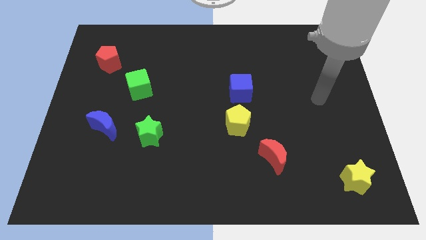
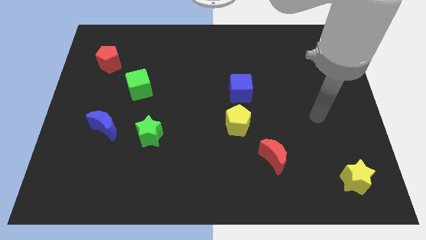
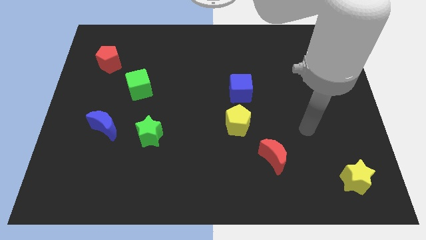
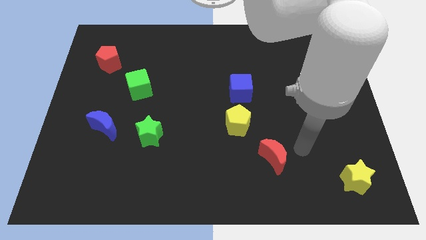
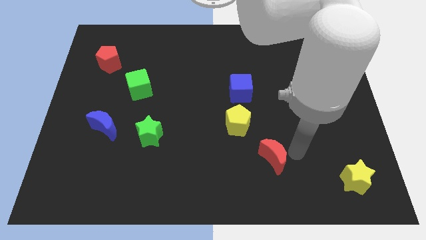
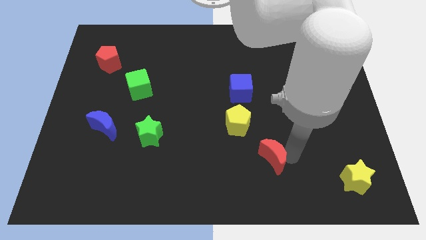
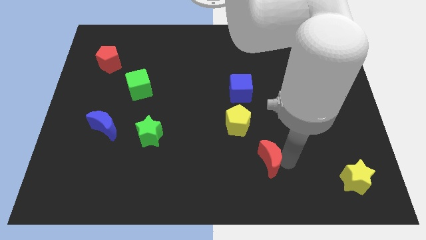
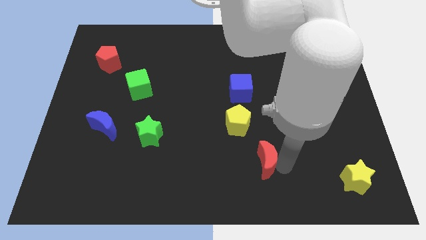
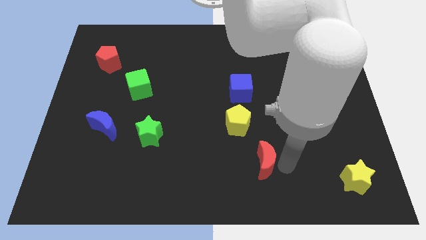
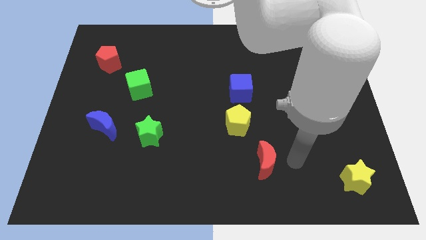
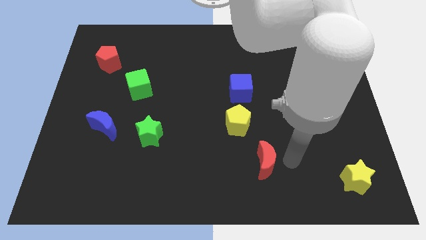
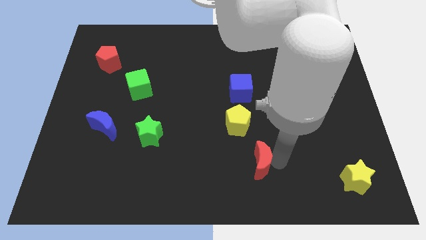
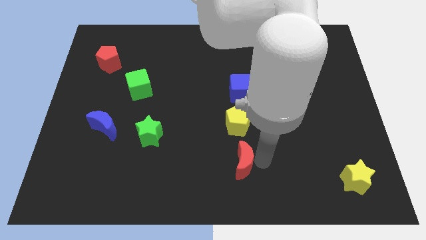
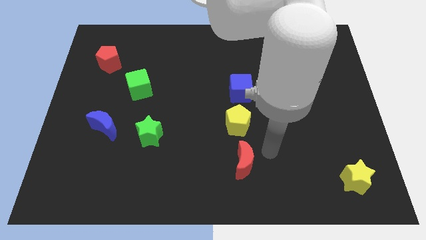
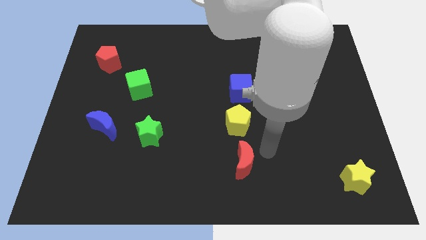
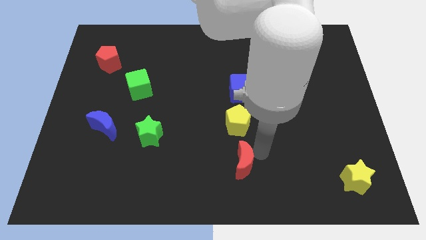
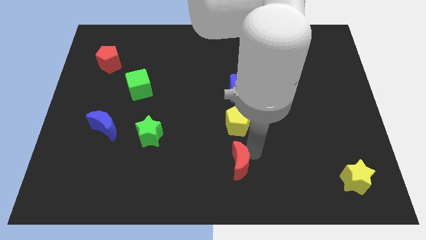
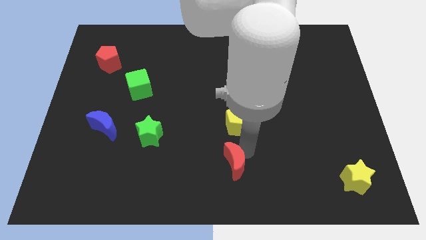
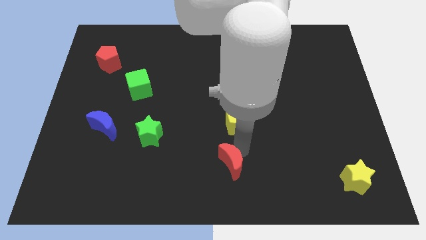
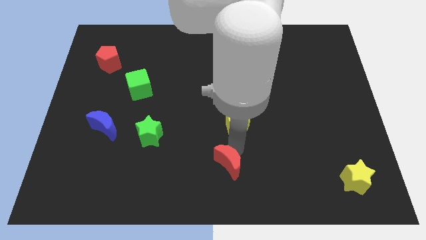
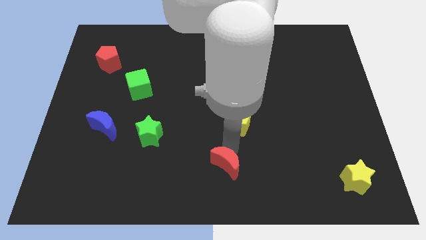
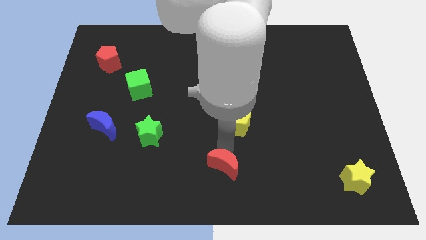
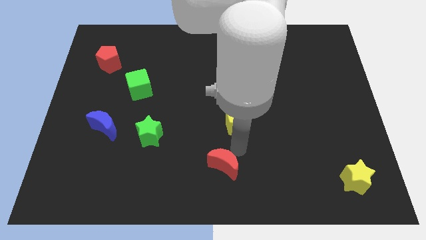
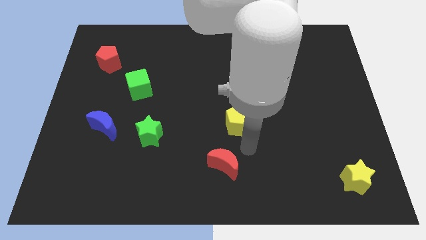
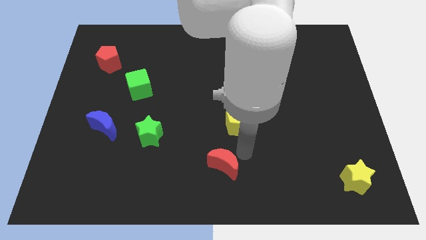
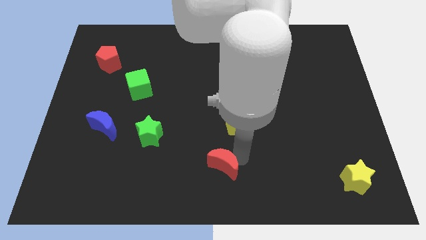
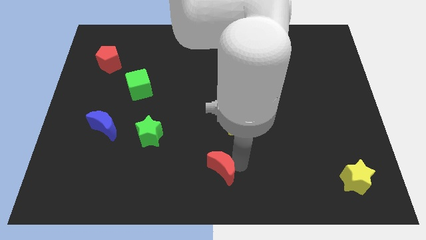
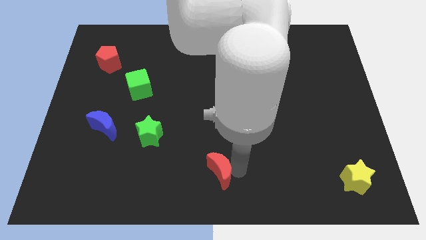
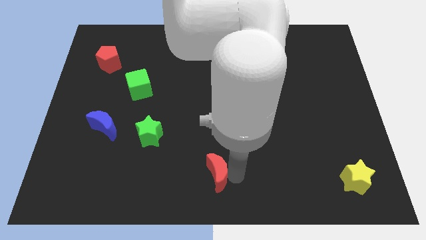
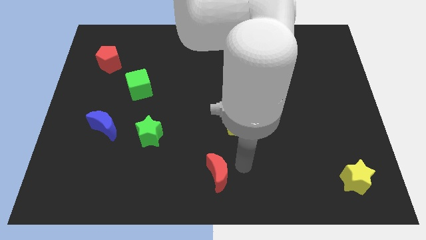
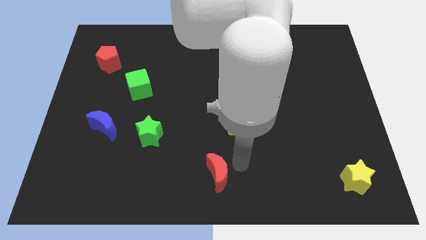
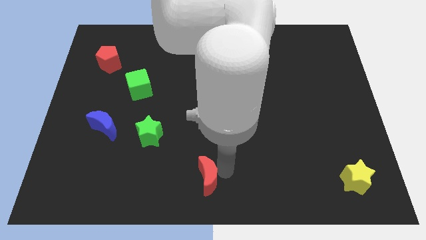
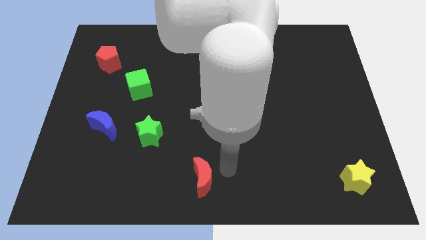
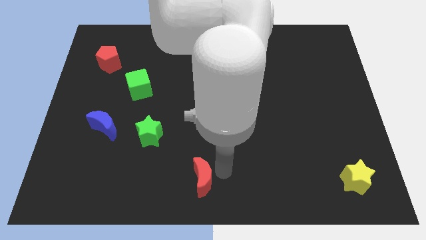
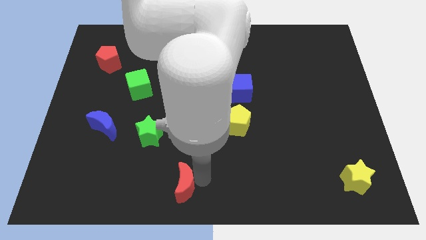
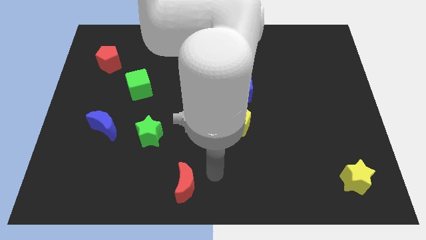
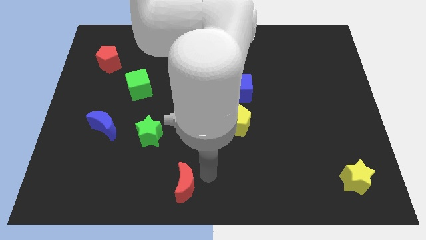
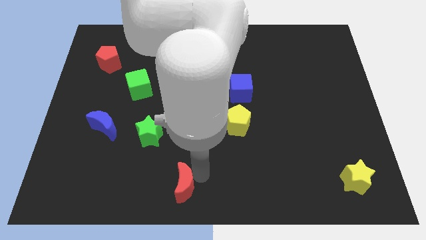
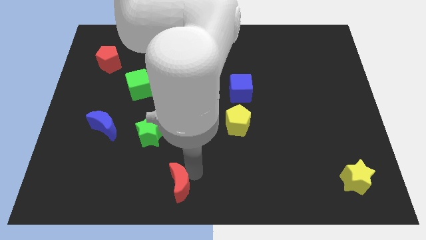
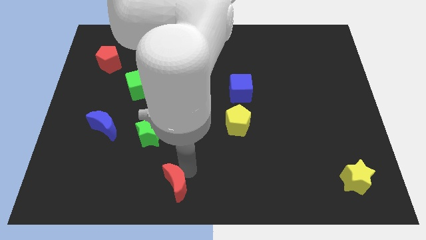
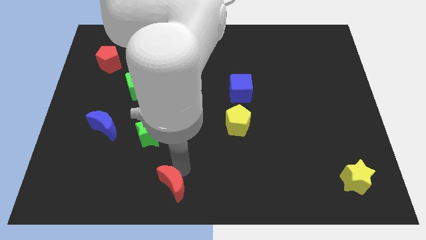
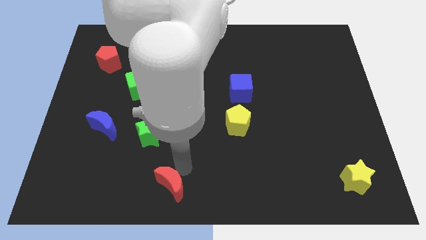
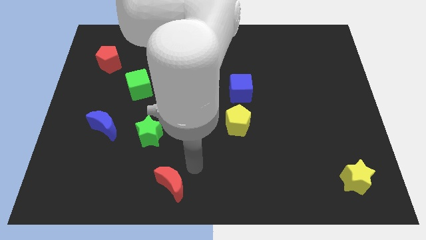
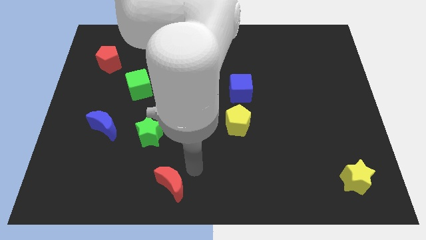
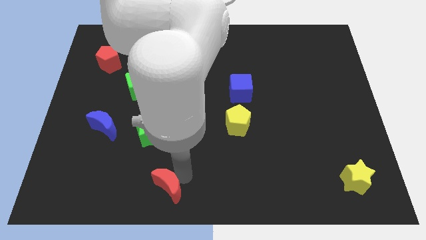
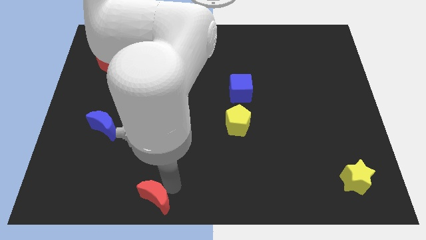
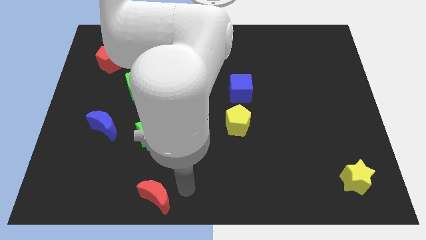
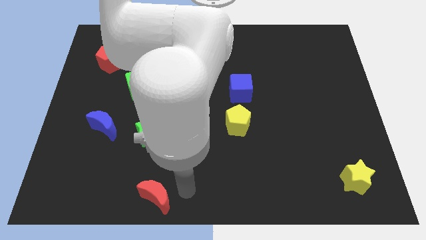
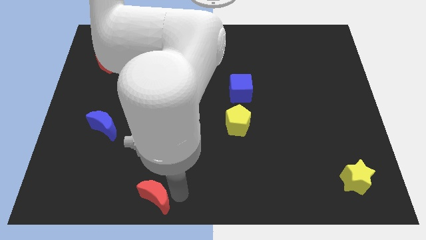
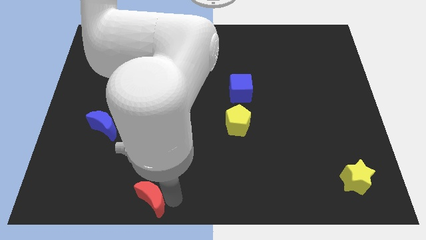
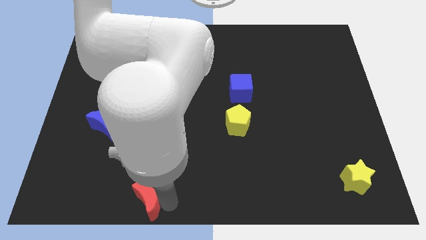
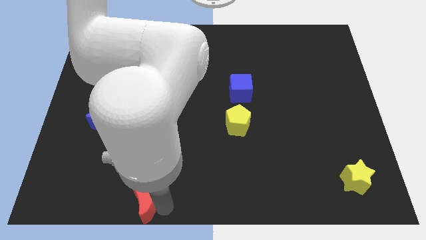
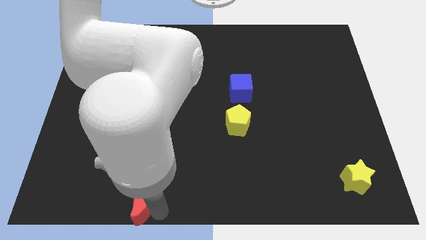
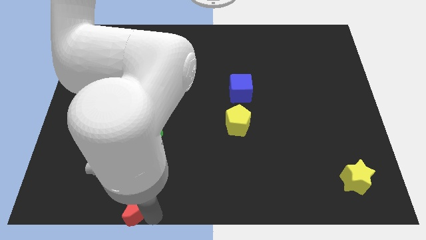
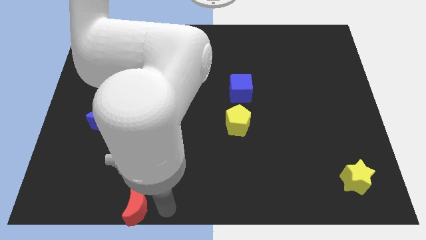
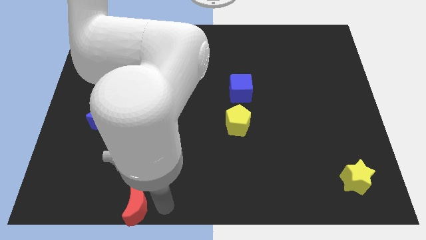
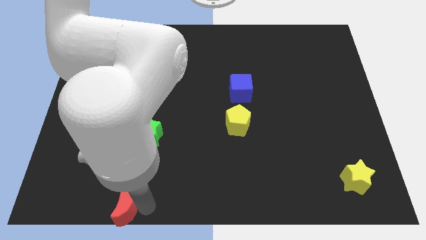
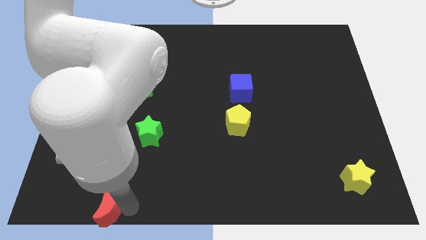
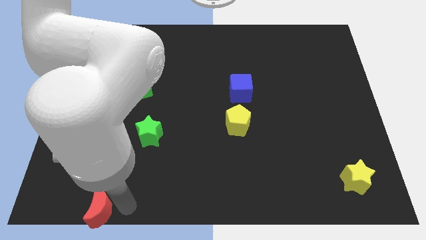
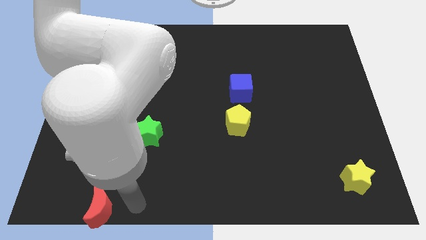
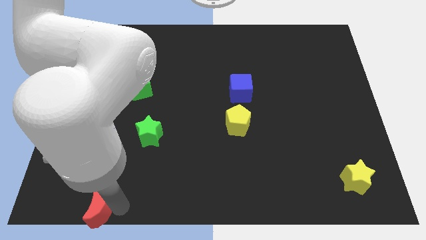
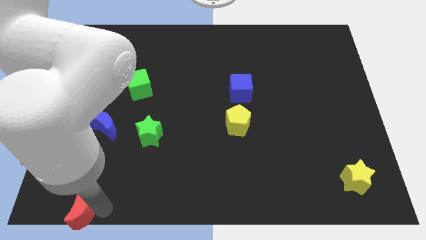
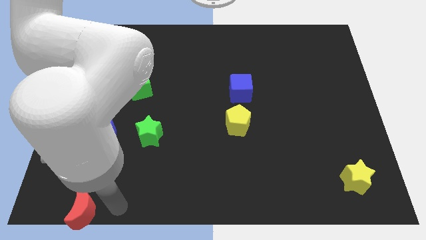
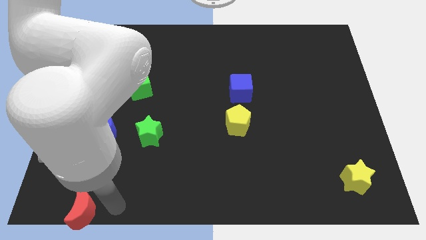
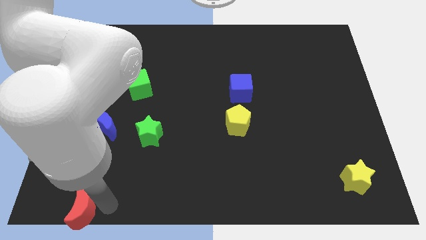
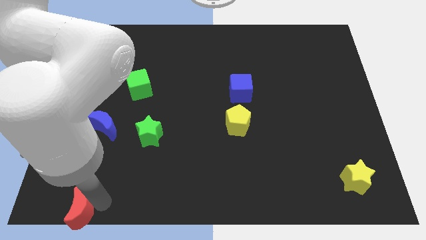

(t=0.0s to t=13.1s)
push the red moon to the lower left corner
